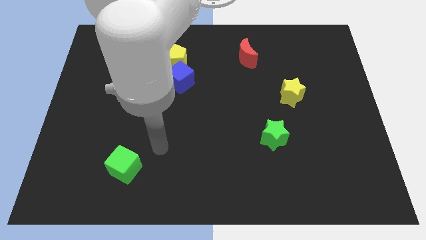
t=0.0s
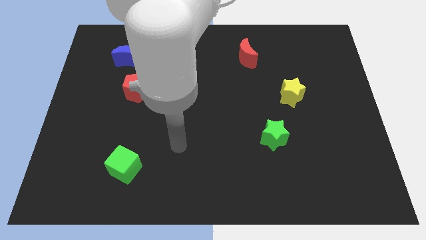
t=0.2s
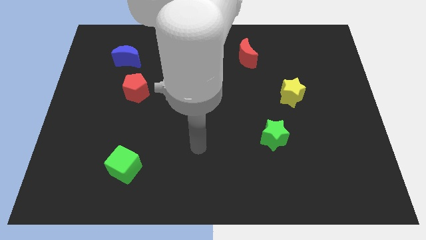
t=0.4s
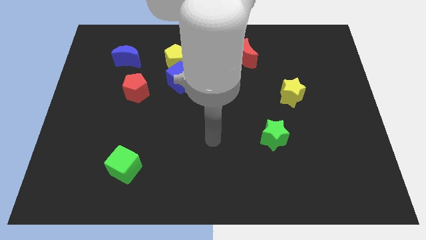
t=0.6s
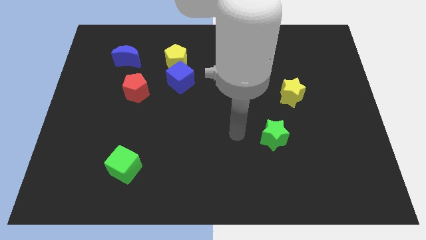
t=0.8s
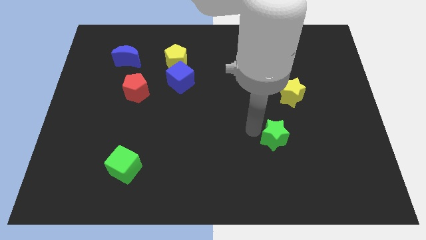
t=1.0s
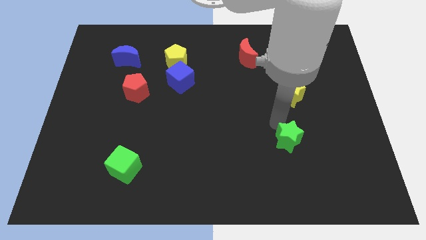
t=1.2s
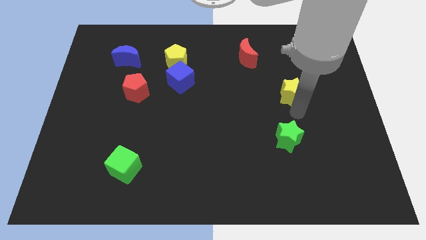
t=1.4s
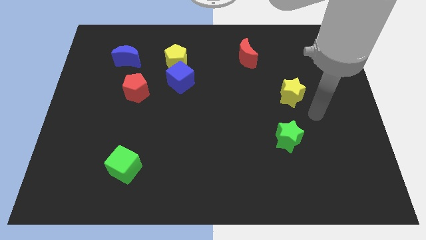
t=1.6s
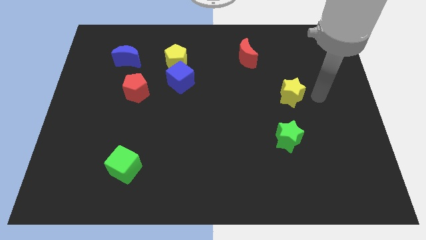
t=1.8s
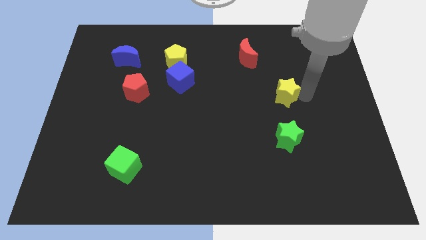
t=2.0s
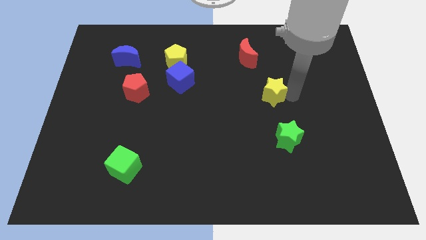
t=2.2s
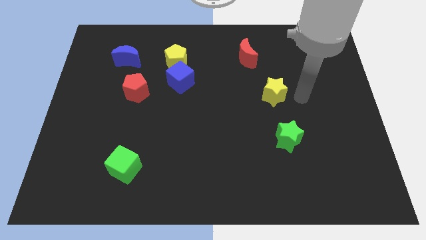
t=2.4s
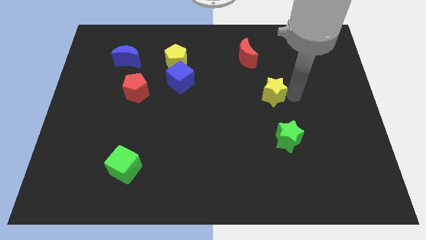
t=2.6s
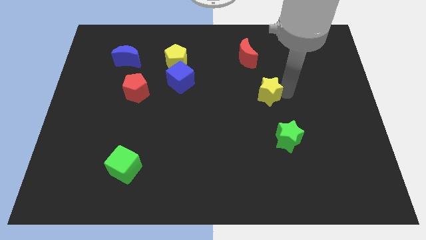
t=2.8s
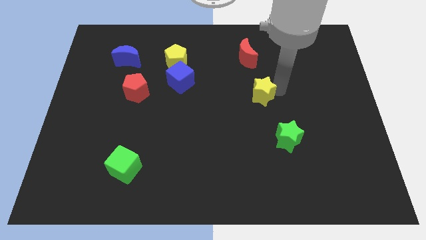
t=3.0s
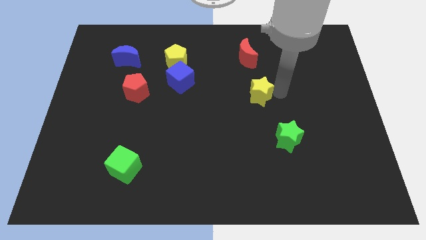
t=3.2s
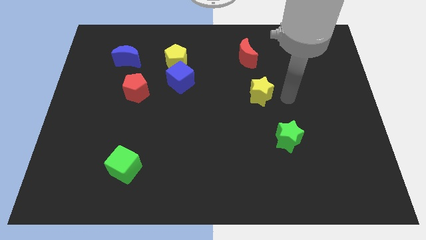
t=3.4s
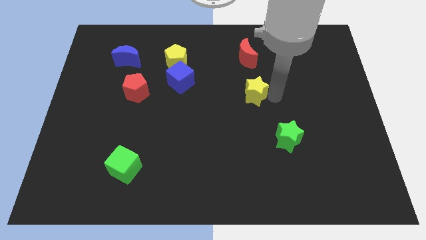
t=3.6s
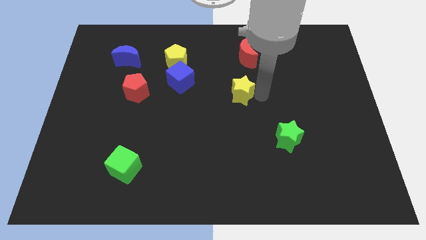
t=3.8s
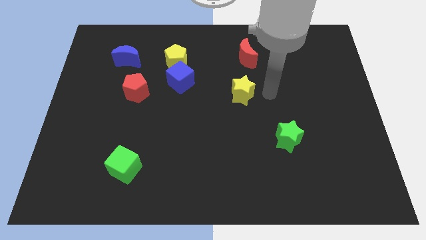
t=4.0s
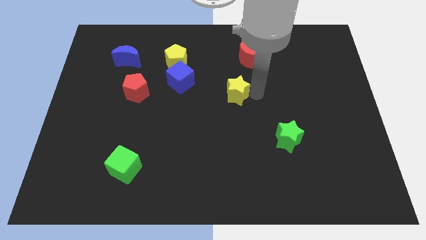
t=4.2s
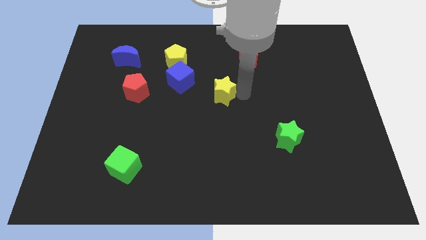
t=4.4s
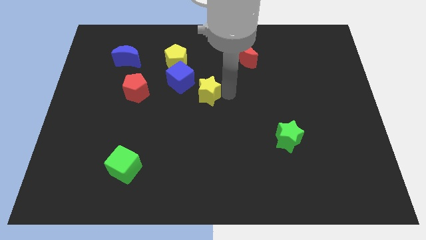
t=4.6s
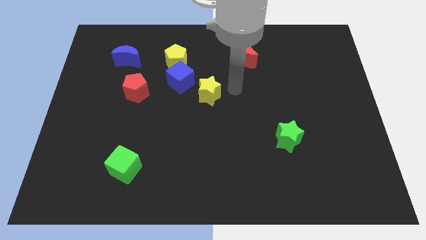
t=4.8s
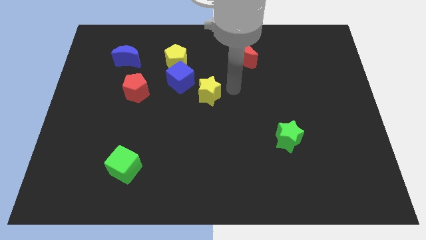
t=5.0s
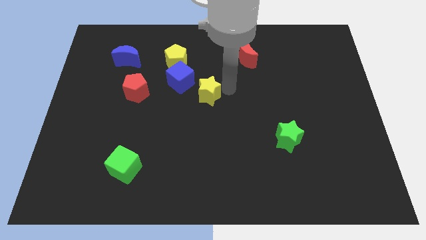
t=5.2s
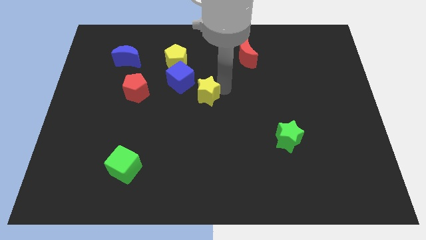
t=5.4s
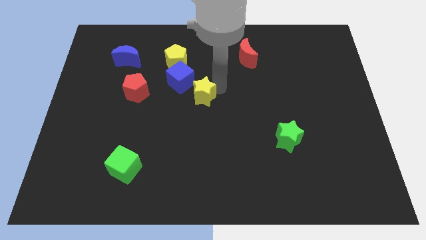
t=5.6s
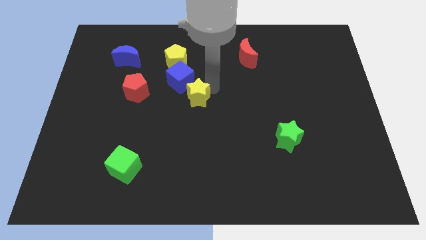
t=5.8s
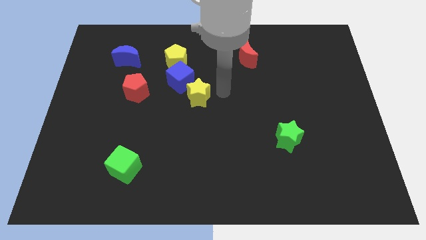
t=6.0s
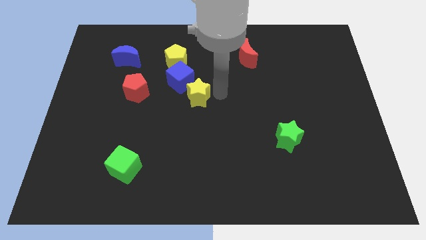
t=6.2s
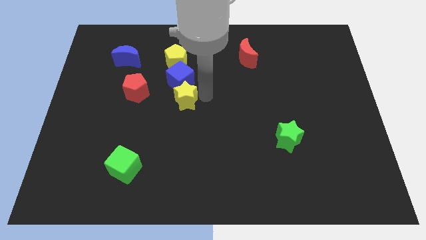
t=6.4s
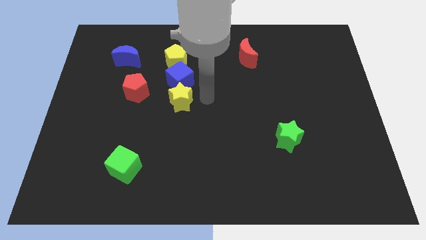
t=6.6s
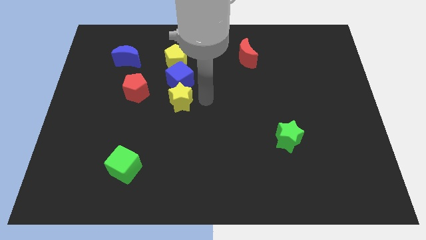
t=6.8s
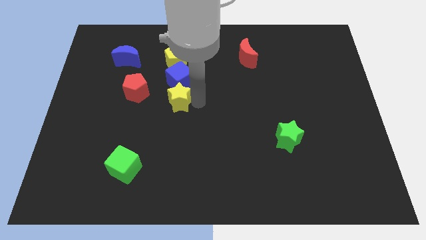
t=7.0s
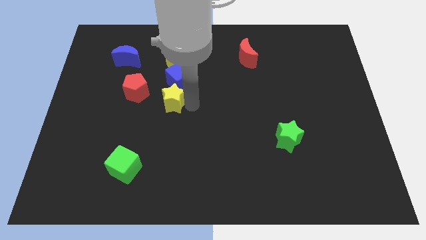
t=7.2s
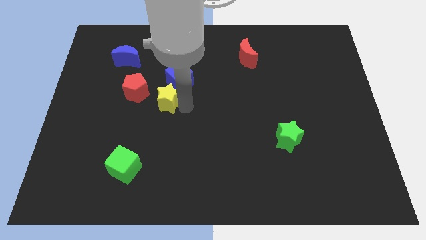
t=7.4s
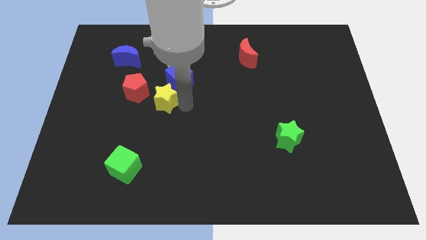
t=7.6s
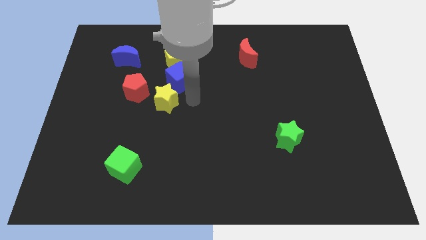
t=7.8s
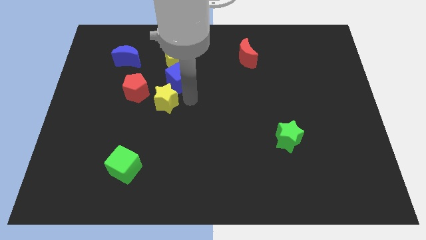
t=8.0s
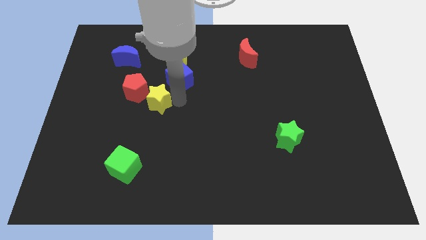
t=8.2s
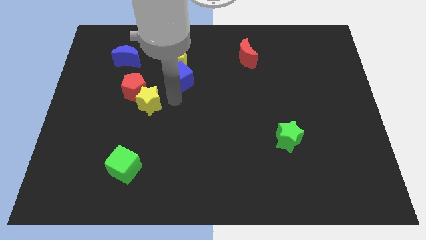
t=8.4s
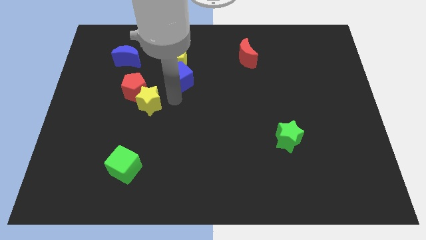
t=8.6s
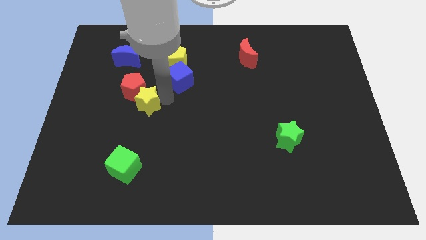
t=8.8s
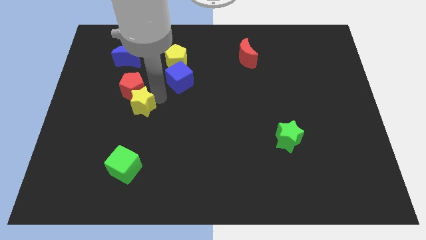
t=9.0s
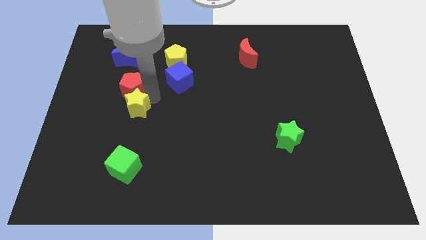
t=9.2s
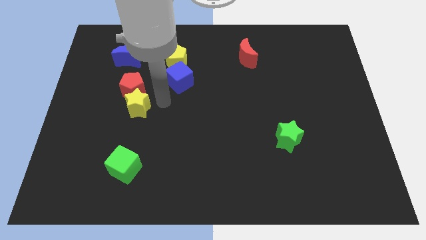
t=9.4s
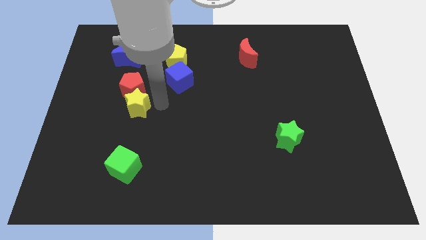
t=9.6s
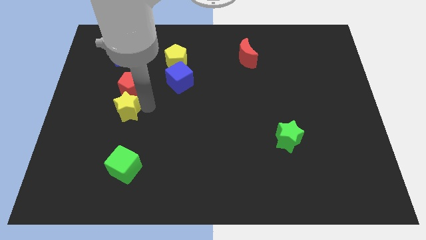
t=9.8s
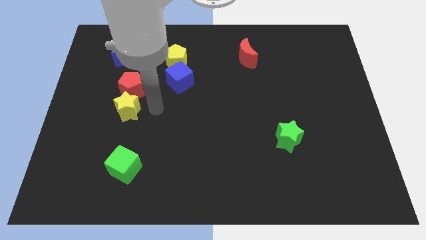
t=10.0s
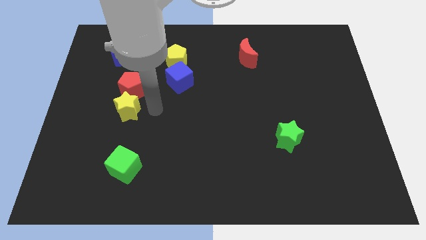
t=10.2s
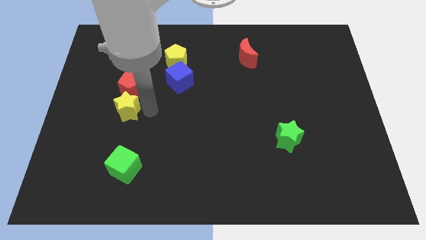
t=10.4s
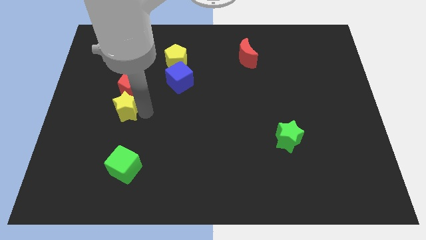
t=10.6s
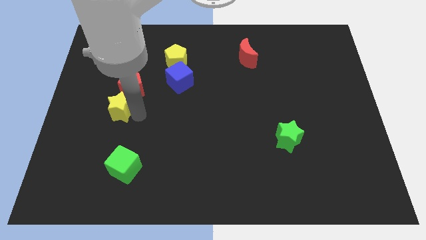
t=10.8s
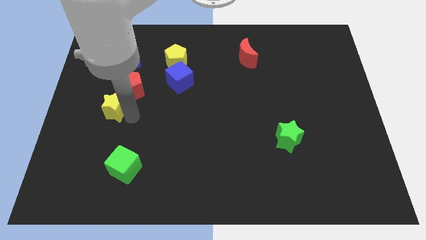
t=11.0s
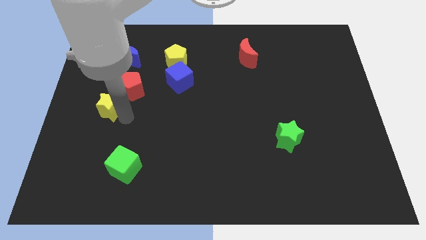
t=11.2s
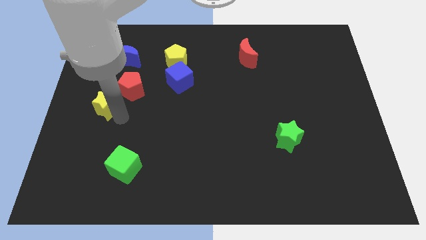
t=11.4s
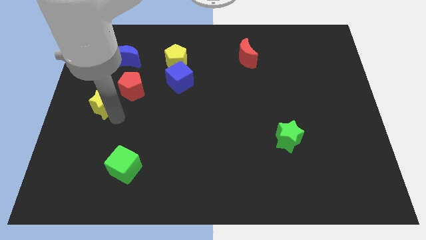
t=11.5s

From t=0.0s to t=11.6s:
push the yellow star to the left side of the board

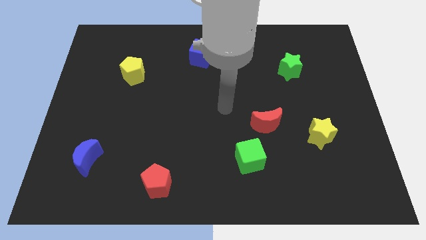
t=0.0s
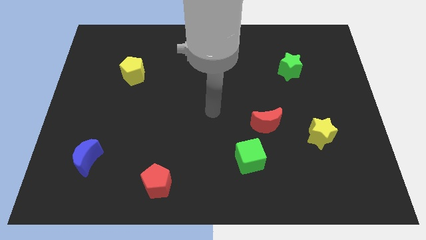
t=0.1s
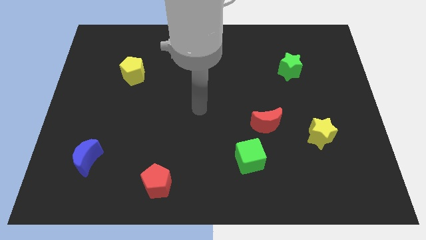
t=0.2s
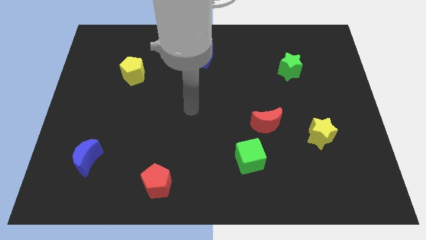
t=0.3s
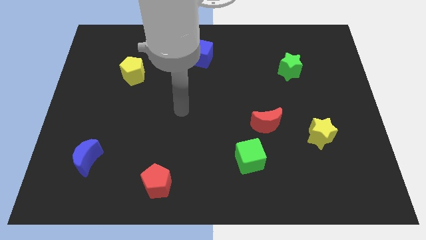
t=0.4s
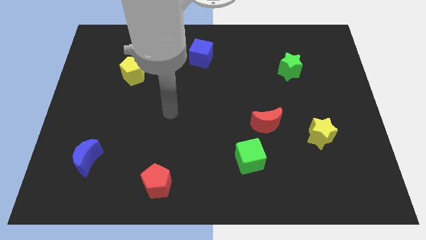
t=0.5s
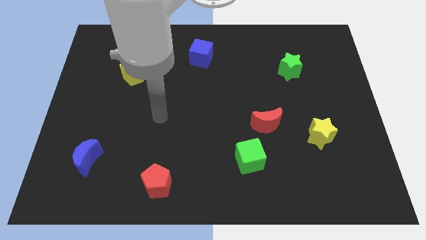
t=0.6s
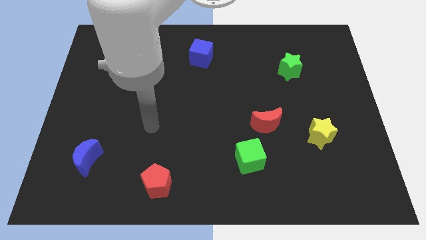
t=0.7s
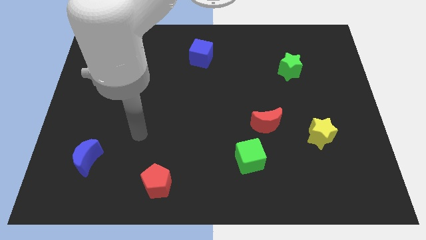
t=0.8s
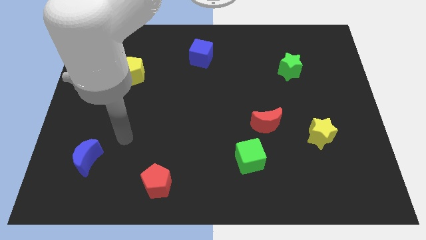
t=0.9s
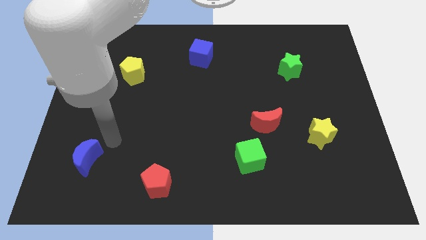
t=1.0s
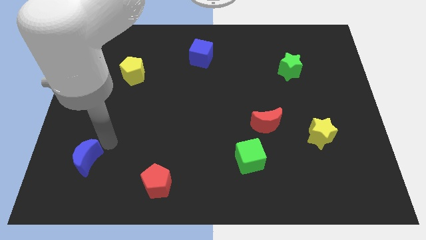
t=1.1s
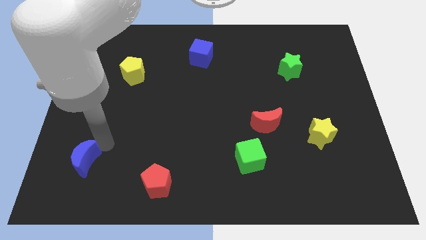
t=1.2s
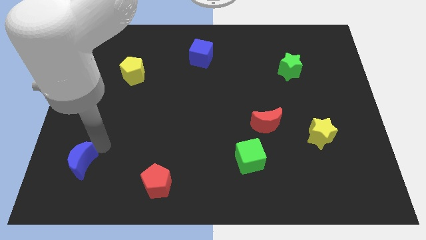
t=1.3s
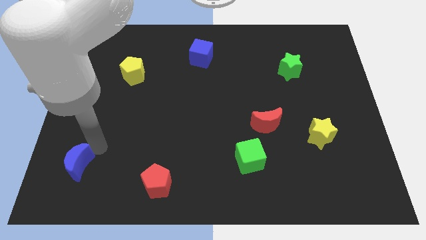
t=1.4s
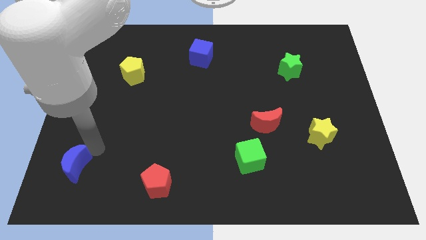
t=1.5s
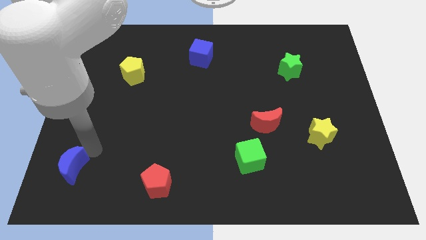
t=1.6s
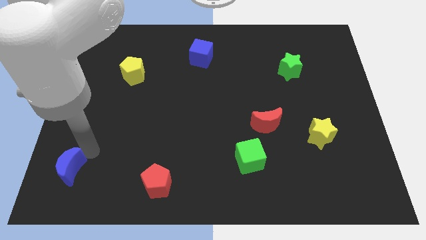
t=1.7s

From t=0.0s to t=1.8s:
move the blue moon to the lower left corner
